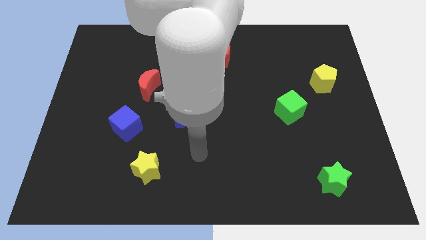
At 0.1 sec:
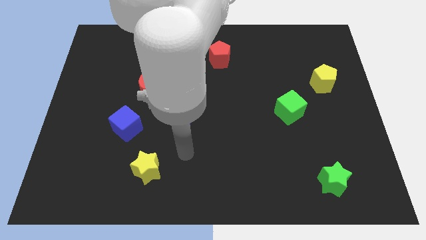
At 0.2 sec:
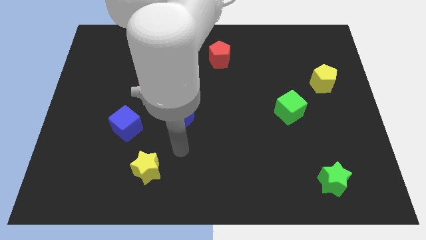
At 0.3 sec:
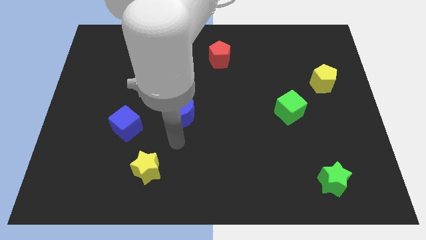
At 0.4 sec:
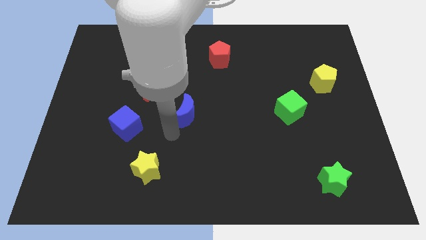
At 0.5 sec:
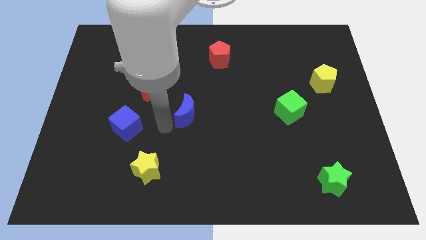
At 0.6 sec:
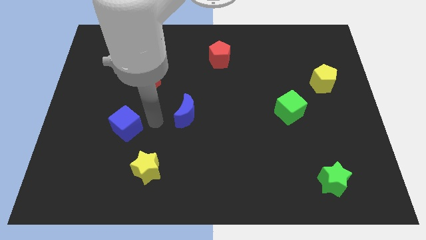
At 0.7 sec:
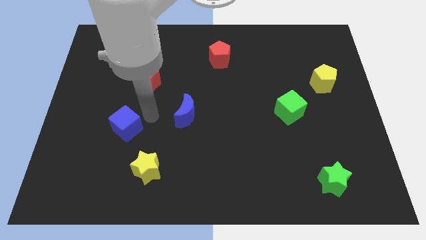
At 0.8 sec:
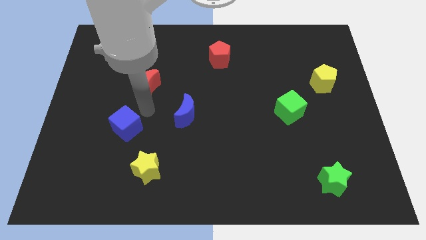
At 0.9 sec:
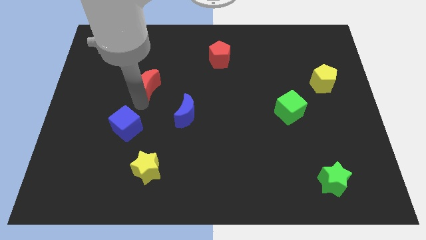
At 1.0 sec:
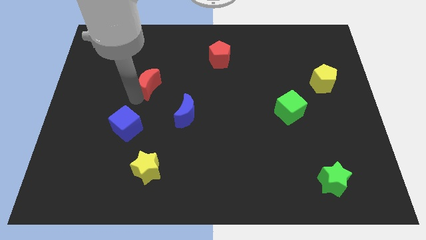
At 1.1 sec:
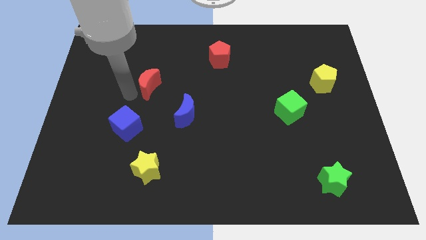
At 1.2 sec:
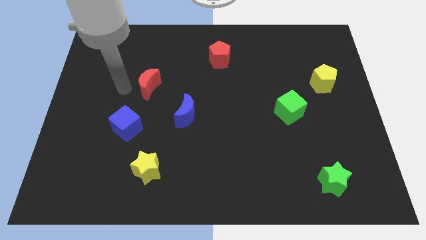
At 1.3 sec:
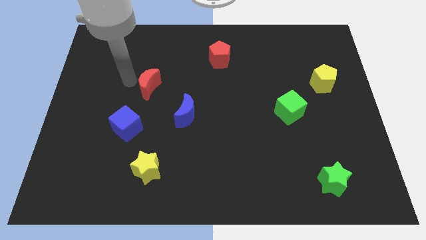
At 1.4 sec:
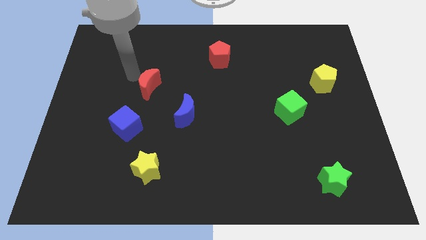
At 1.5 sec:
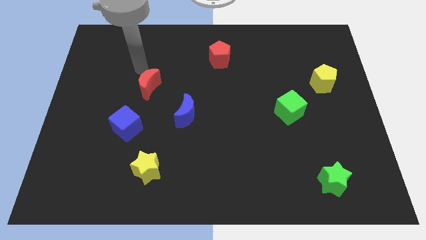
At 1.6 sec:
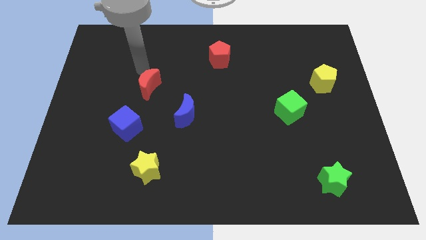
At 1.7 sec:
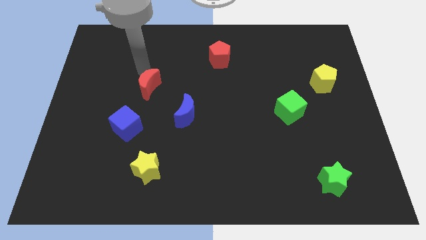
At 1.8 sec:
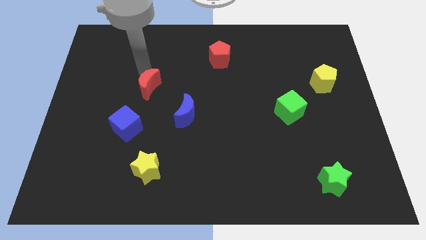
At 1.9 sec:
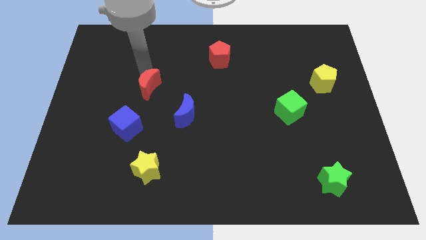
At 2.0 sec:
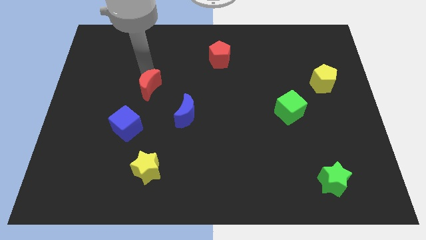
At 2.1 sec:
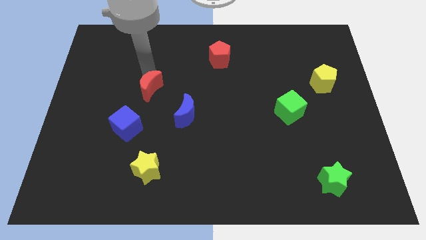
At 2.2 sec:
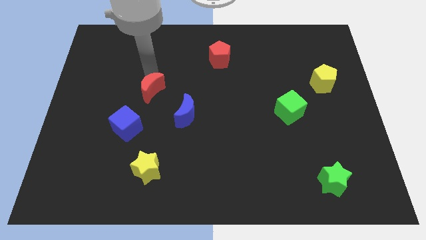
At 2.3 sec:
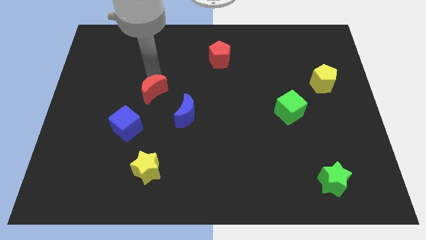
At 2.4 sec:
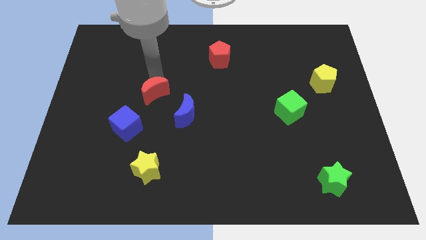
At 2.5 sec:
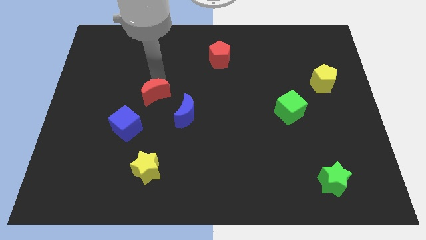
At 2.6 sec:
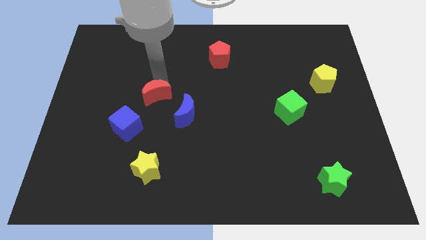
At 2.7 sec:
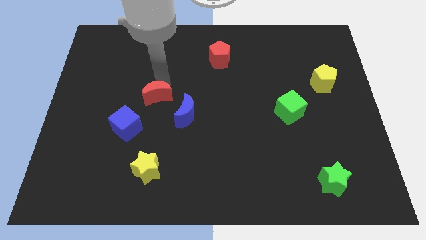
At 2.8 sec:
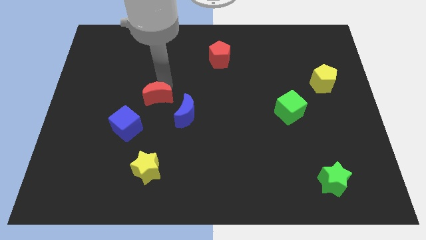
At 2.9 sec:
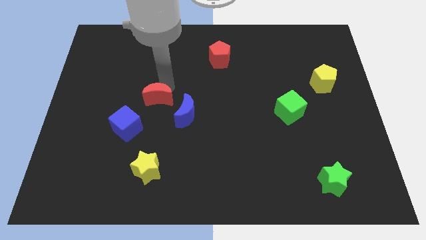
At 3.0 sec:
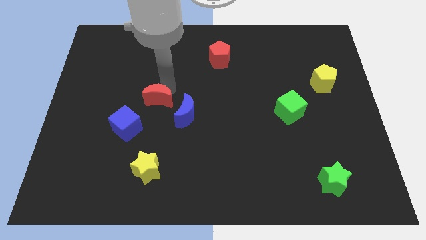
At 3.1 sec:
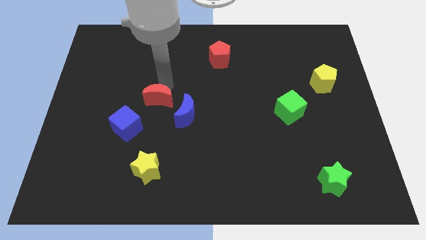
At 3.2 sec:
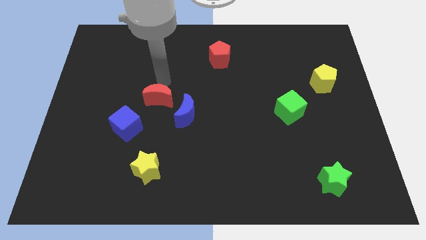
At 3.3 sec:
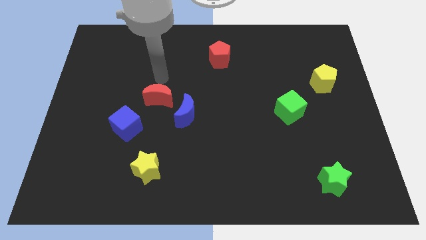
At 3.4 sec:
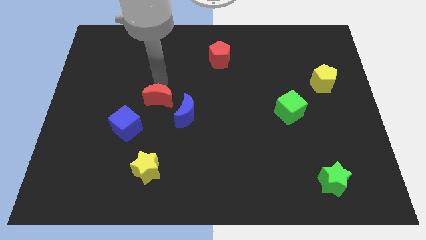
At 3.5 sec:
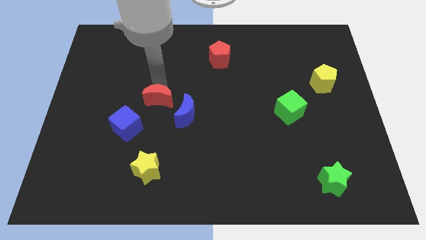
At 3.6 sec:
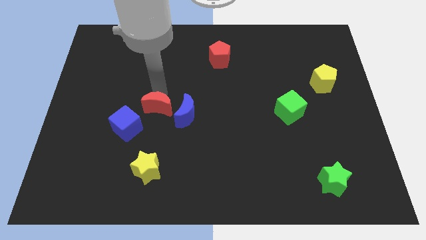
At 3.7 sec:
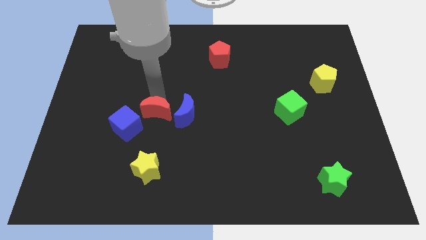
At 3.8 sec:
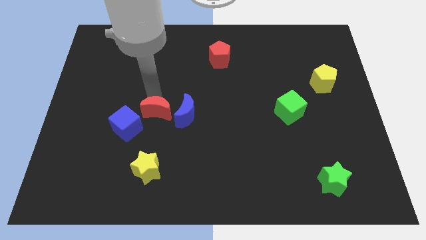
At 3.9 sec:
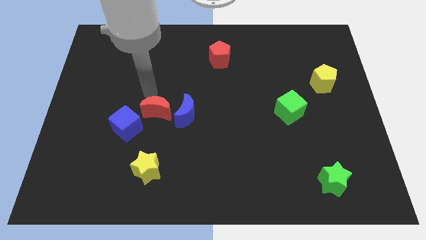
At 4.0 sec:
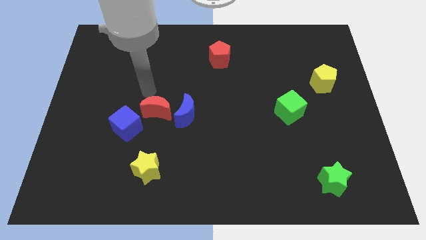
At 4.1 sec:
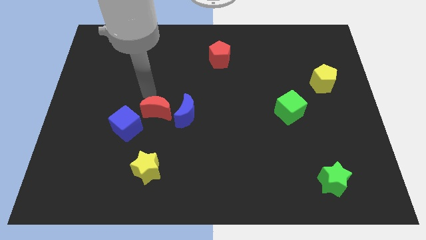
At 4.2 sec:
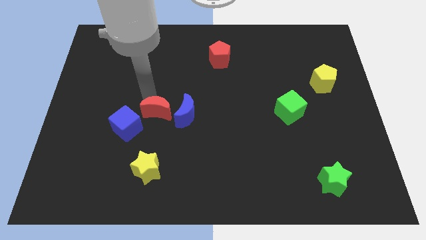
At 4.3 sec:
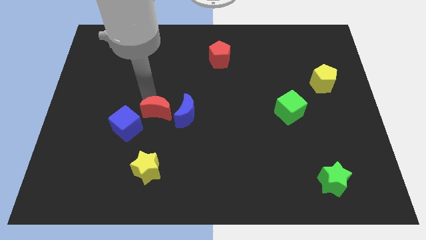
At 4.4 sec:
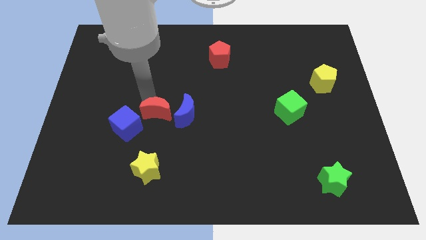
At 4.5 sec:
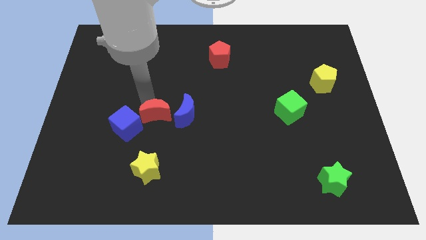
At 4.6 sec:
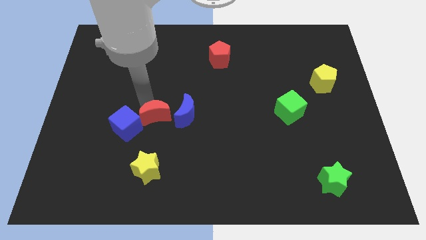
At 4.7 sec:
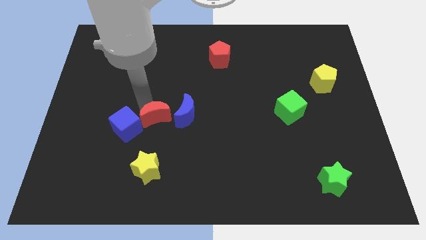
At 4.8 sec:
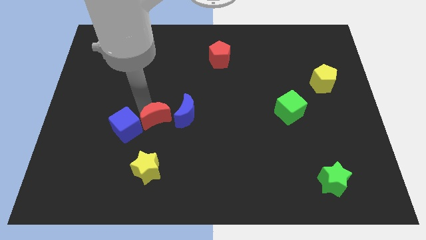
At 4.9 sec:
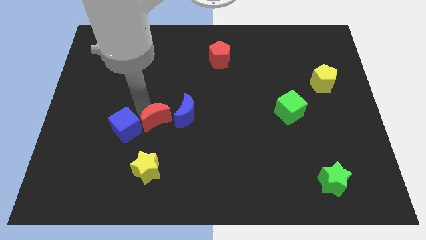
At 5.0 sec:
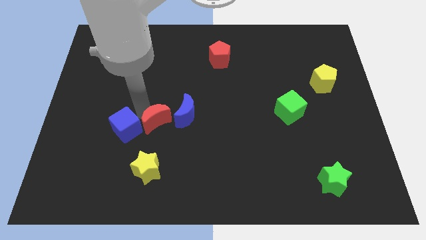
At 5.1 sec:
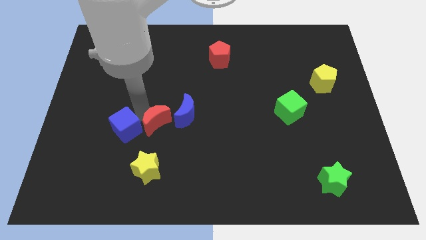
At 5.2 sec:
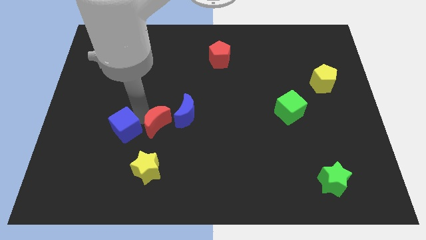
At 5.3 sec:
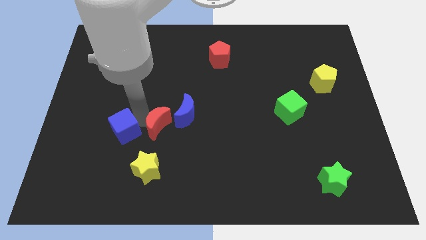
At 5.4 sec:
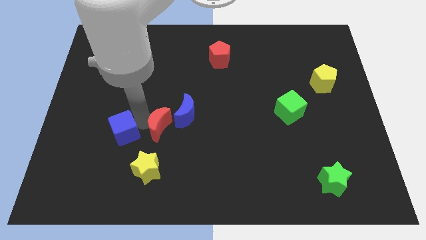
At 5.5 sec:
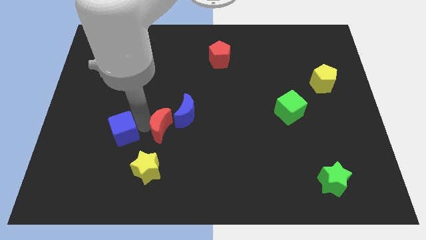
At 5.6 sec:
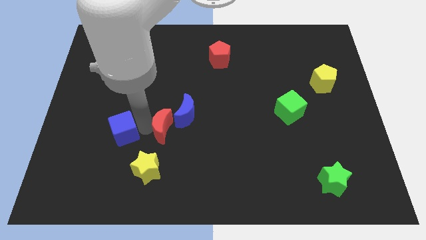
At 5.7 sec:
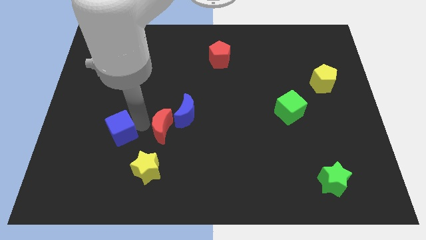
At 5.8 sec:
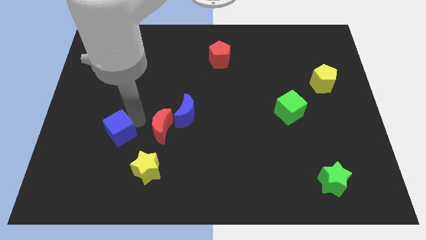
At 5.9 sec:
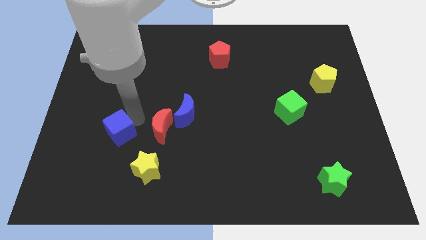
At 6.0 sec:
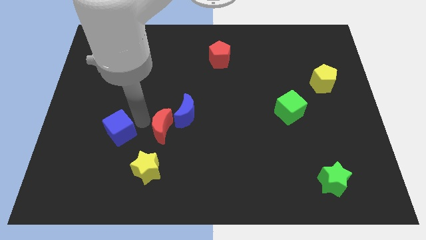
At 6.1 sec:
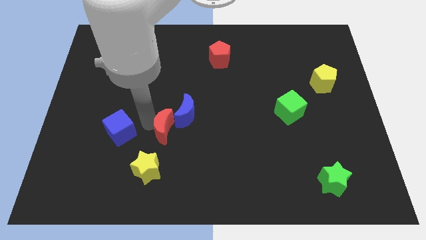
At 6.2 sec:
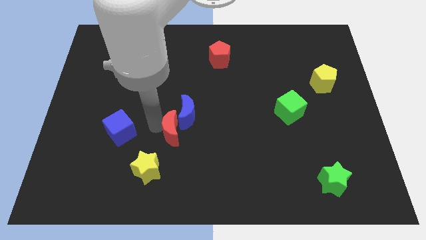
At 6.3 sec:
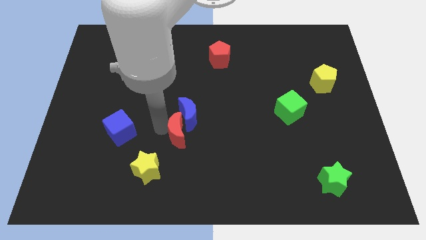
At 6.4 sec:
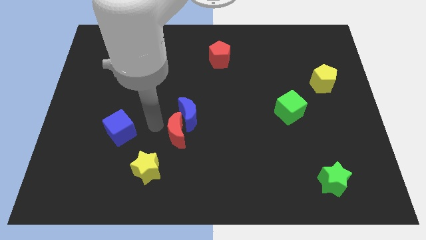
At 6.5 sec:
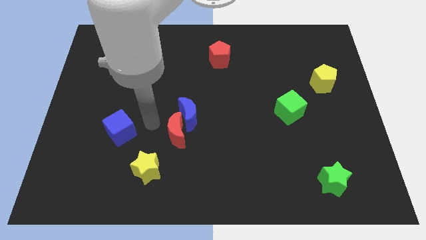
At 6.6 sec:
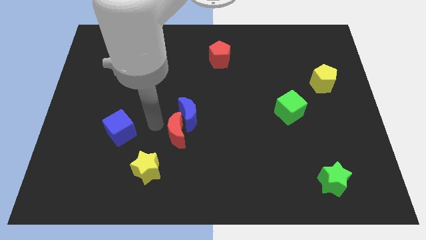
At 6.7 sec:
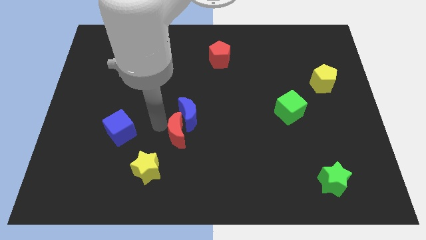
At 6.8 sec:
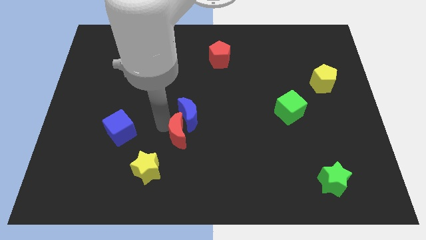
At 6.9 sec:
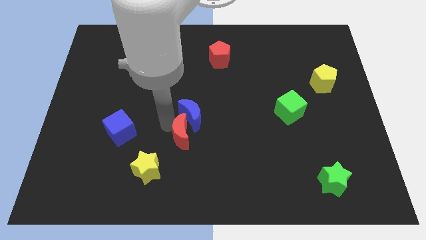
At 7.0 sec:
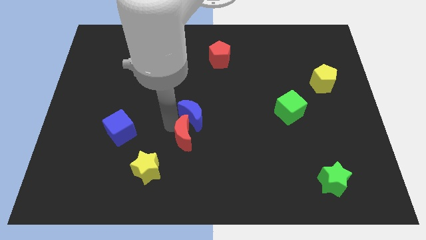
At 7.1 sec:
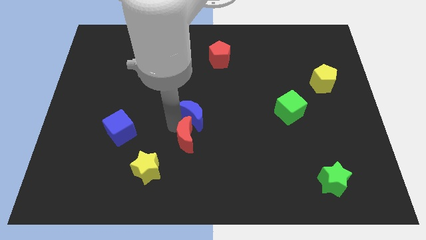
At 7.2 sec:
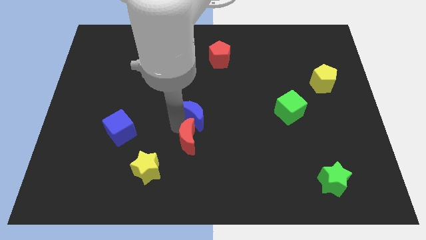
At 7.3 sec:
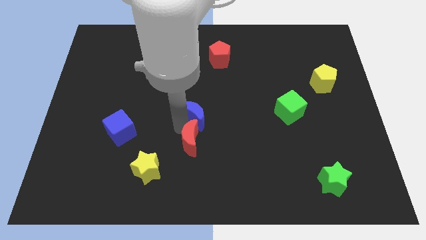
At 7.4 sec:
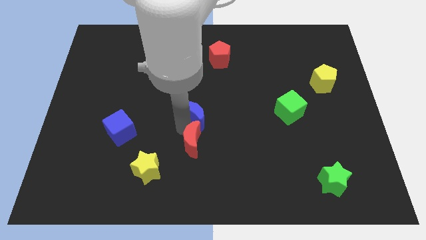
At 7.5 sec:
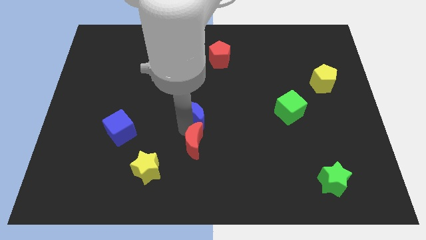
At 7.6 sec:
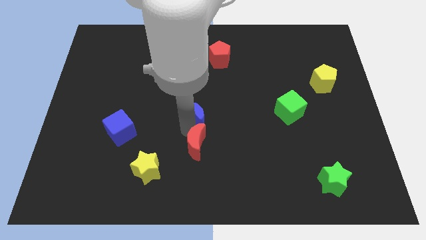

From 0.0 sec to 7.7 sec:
slide the red moon downwards and to the right

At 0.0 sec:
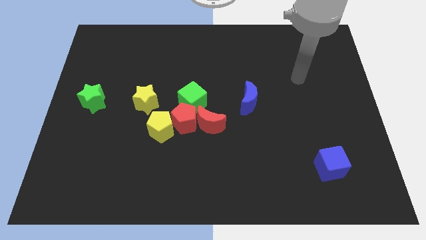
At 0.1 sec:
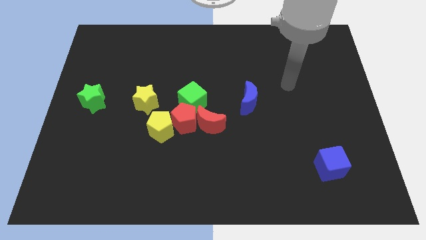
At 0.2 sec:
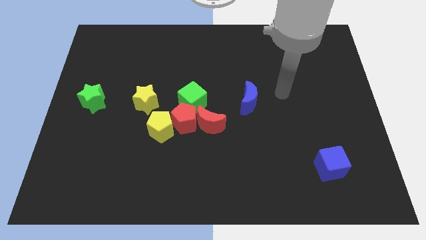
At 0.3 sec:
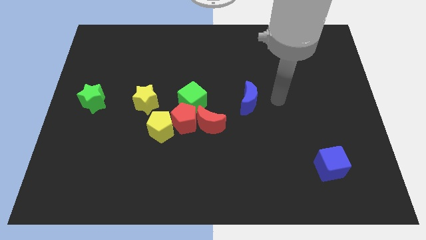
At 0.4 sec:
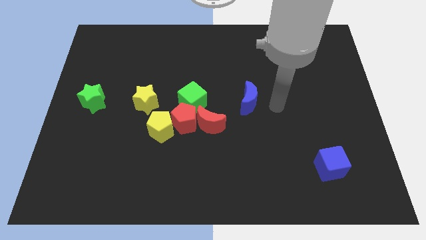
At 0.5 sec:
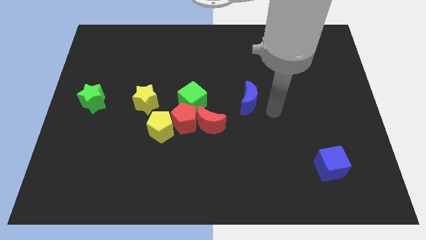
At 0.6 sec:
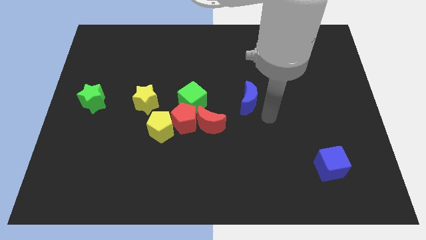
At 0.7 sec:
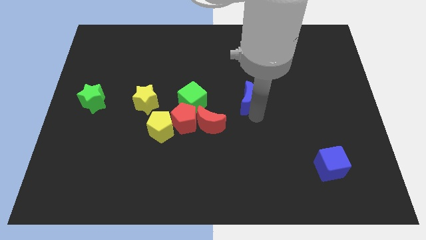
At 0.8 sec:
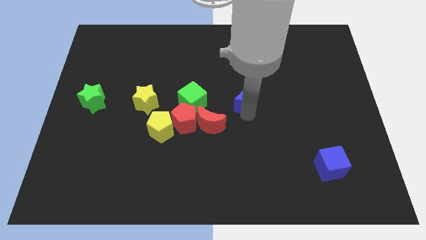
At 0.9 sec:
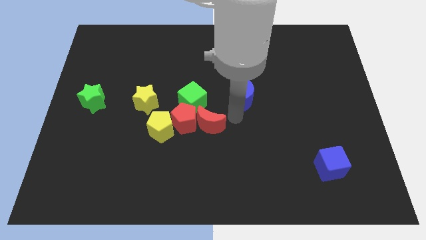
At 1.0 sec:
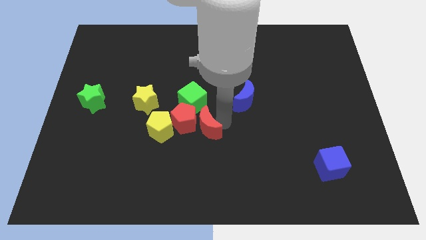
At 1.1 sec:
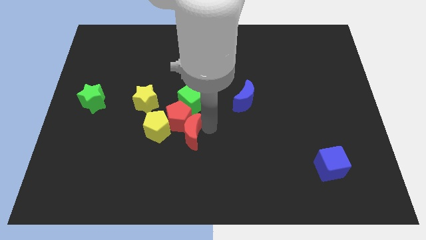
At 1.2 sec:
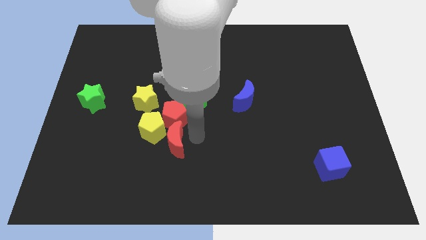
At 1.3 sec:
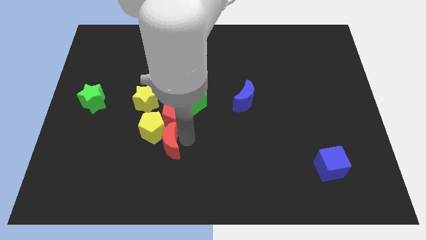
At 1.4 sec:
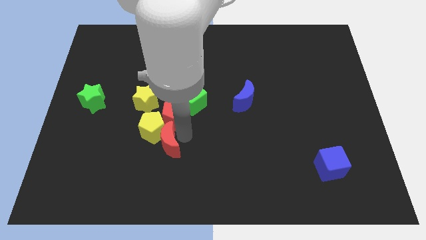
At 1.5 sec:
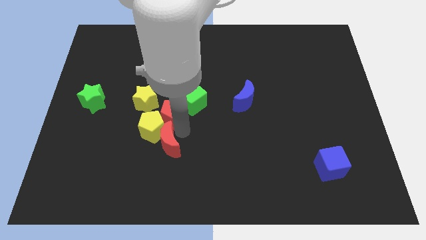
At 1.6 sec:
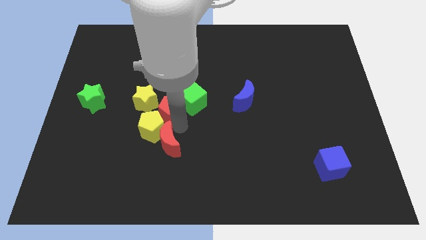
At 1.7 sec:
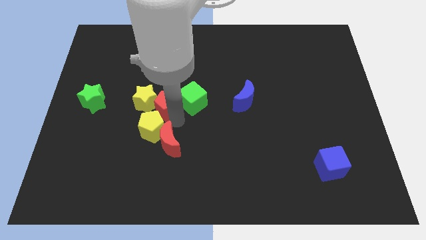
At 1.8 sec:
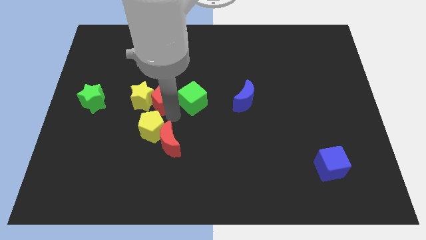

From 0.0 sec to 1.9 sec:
push the red pentagon a bit diagonally upwards and to the left
